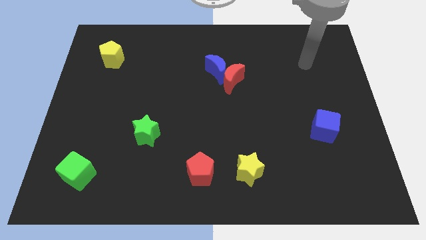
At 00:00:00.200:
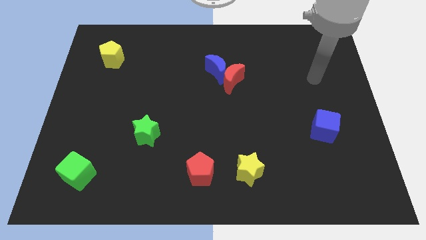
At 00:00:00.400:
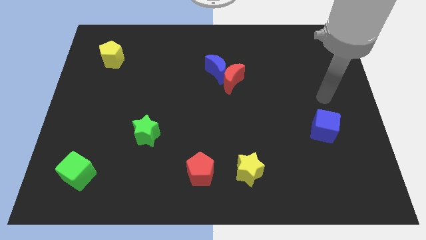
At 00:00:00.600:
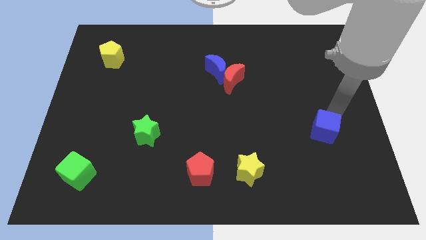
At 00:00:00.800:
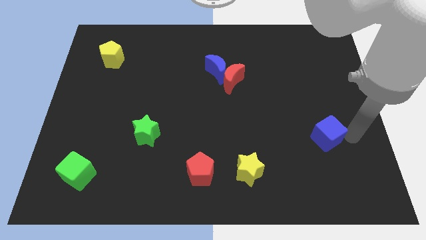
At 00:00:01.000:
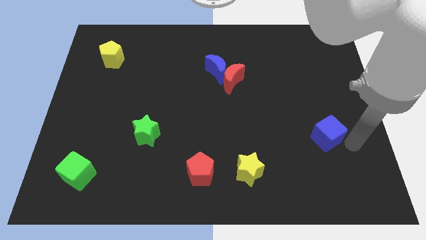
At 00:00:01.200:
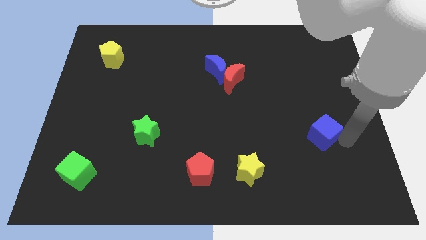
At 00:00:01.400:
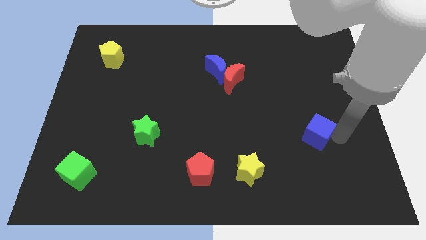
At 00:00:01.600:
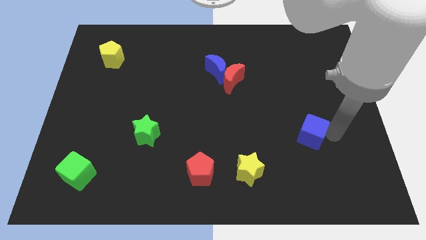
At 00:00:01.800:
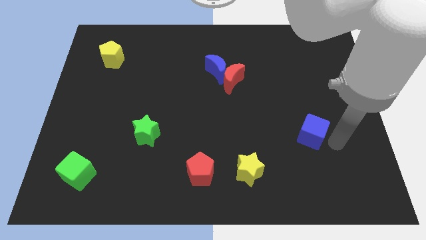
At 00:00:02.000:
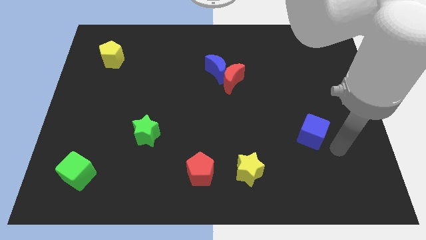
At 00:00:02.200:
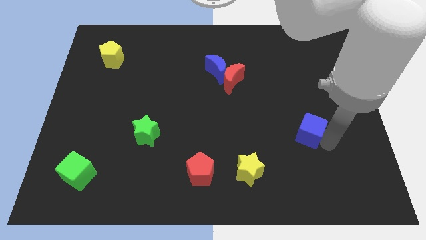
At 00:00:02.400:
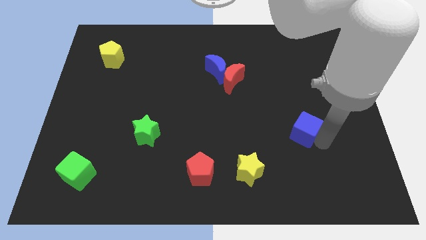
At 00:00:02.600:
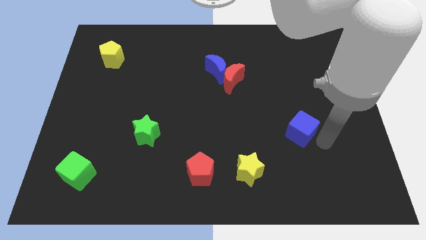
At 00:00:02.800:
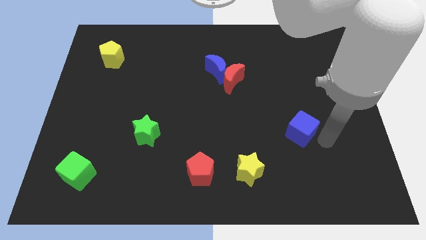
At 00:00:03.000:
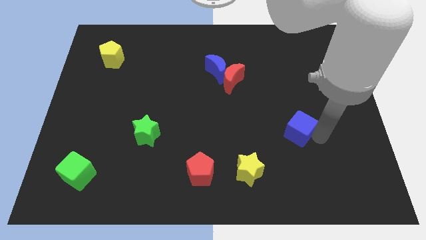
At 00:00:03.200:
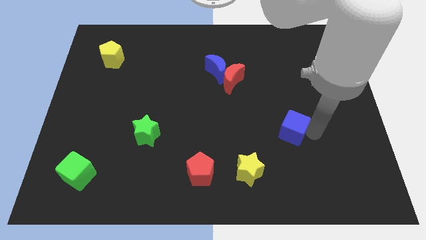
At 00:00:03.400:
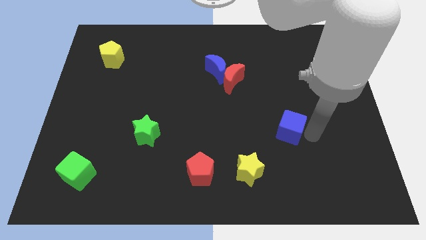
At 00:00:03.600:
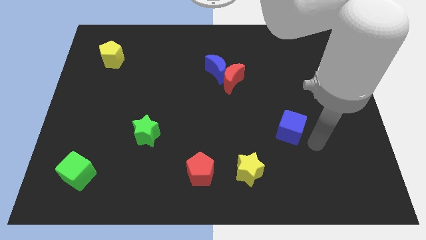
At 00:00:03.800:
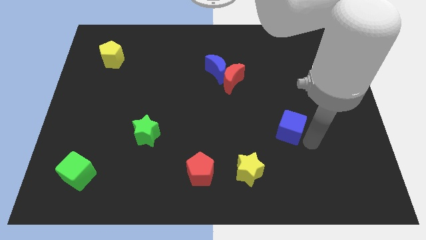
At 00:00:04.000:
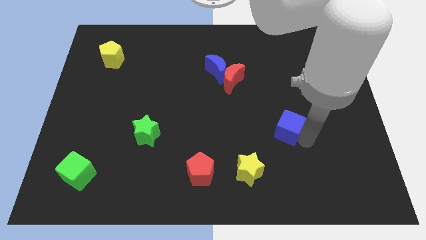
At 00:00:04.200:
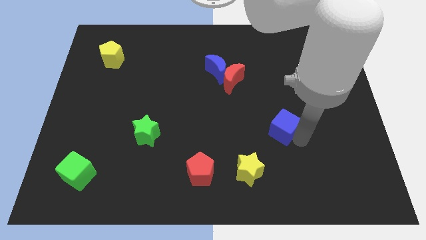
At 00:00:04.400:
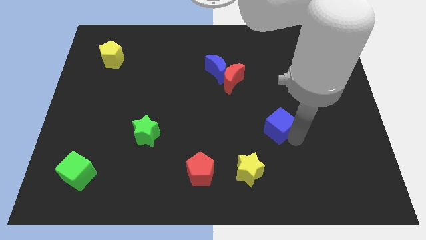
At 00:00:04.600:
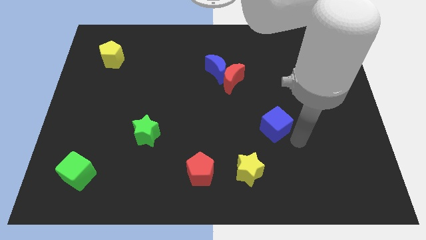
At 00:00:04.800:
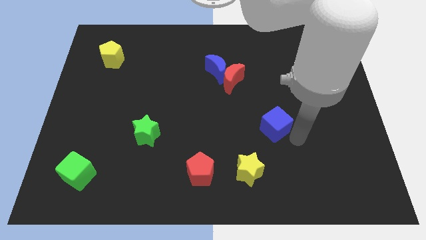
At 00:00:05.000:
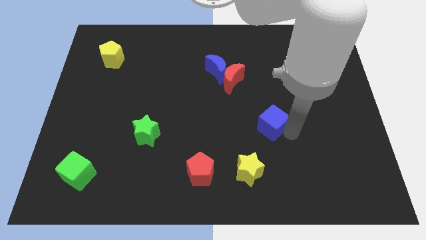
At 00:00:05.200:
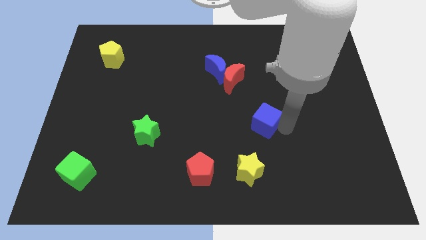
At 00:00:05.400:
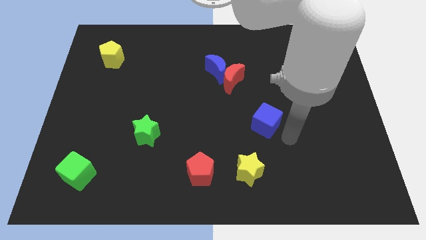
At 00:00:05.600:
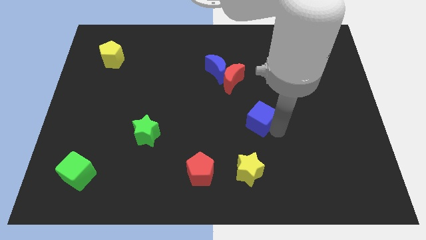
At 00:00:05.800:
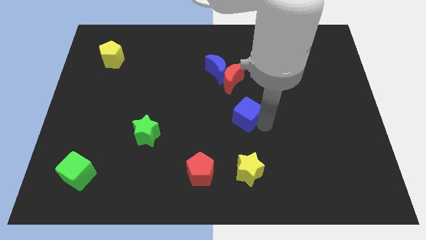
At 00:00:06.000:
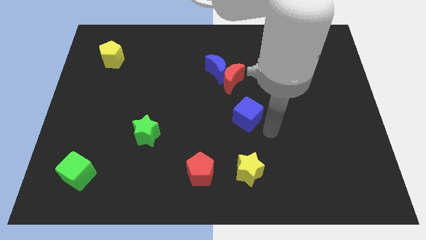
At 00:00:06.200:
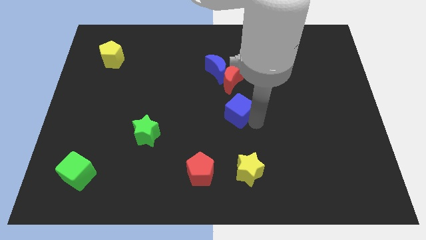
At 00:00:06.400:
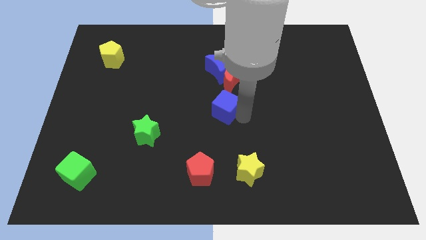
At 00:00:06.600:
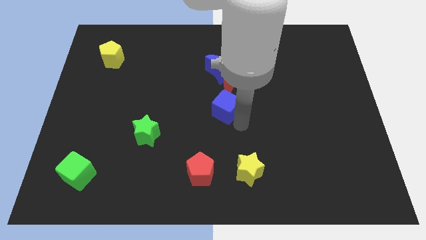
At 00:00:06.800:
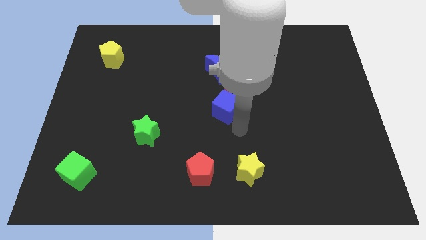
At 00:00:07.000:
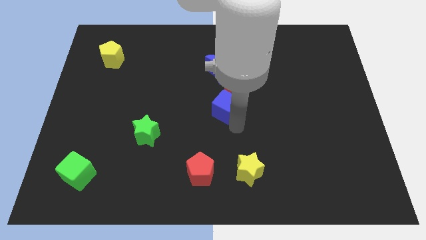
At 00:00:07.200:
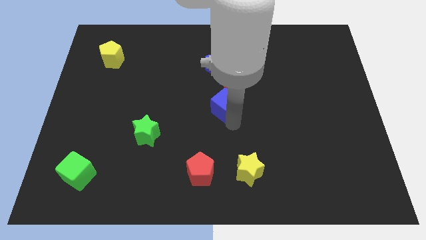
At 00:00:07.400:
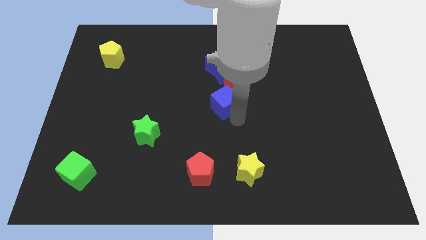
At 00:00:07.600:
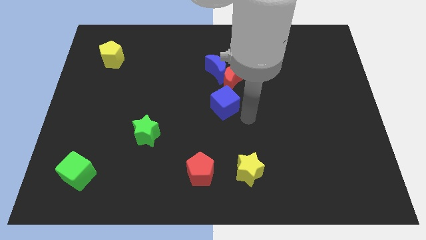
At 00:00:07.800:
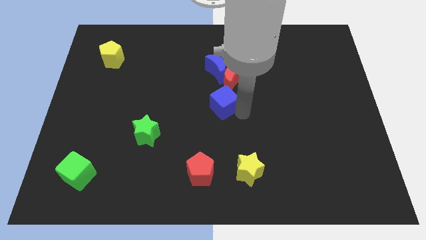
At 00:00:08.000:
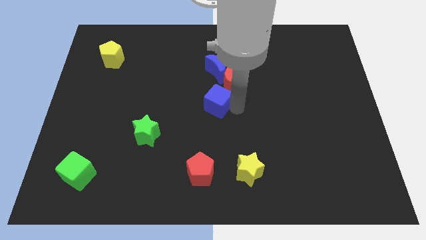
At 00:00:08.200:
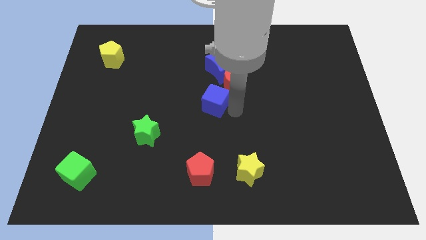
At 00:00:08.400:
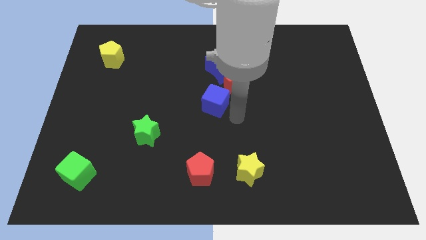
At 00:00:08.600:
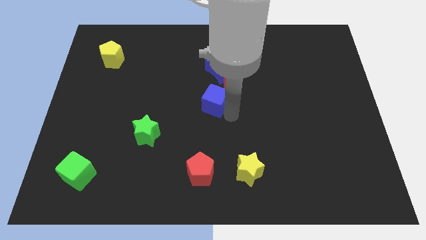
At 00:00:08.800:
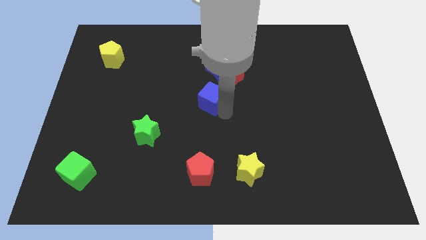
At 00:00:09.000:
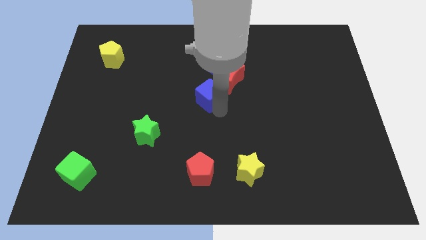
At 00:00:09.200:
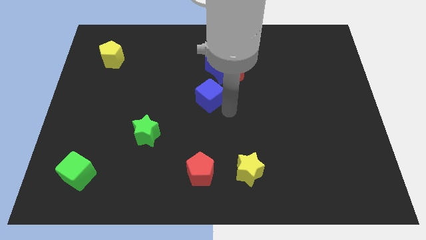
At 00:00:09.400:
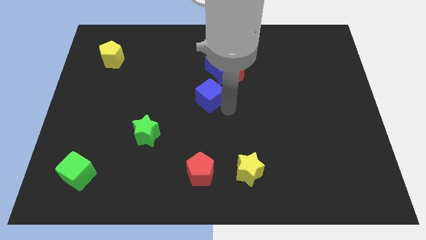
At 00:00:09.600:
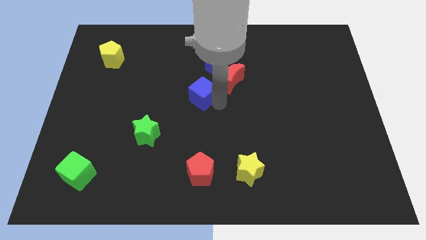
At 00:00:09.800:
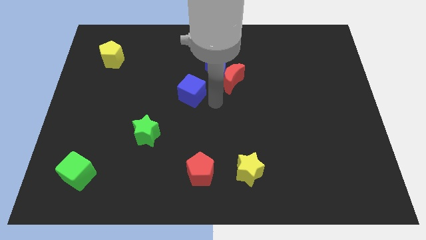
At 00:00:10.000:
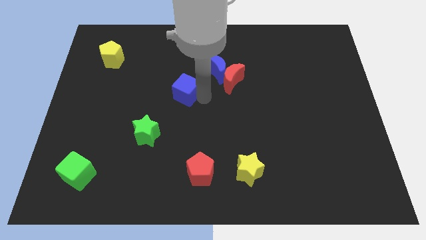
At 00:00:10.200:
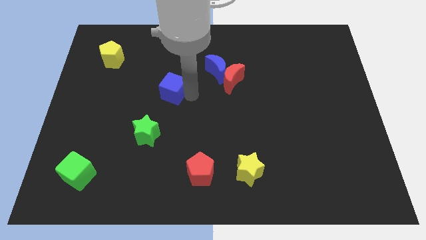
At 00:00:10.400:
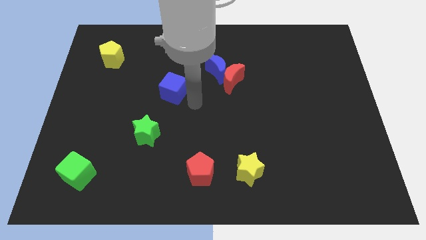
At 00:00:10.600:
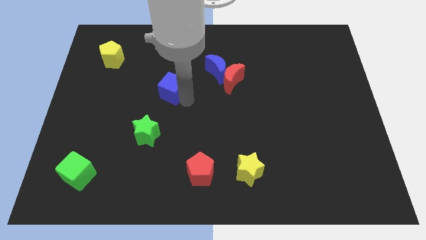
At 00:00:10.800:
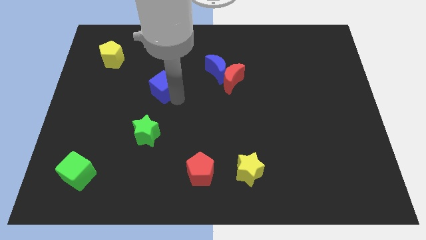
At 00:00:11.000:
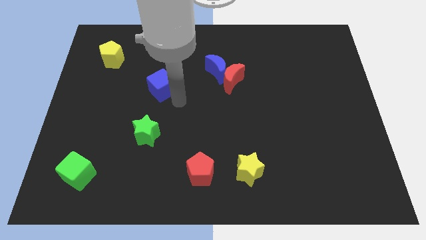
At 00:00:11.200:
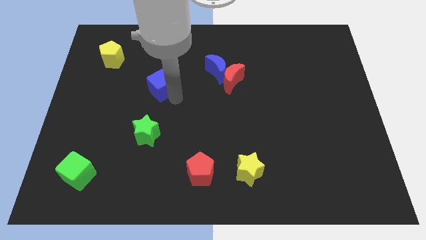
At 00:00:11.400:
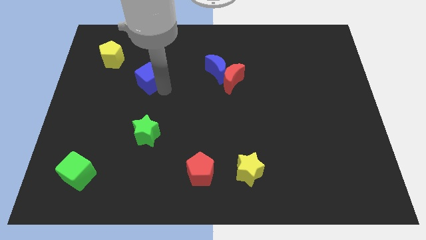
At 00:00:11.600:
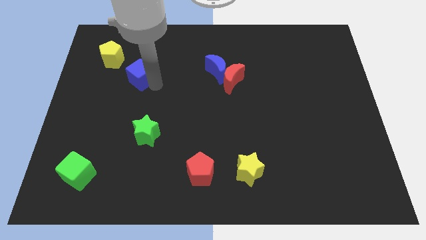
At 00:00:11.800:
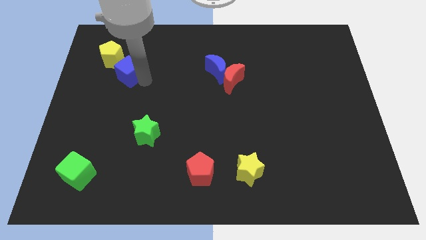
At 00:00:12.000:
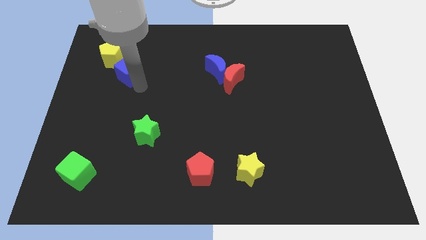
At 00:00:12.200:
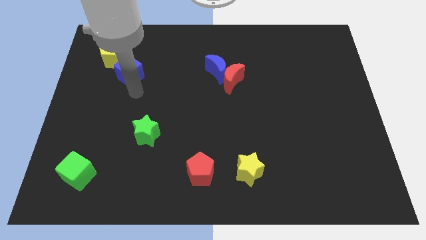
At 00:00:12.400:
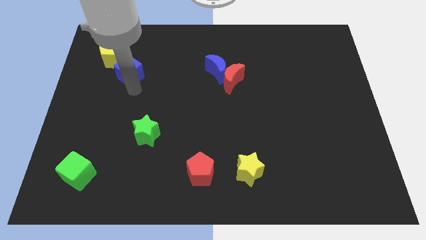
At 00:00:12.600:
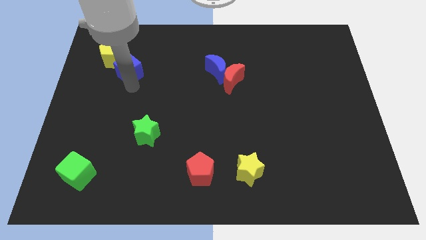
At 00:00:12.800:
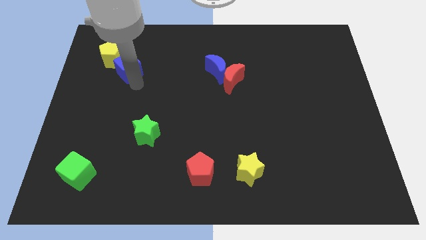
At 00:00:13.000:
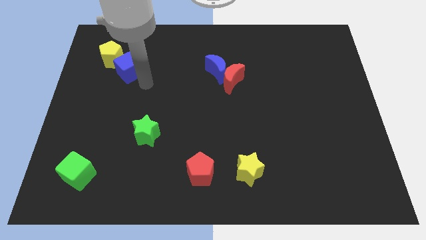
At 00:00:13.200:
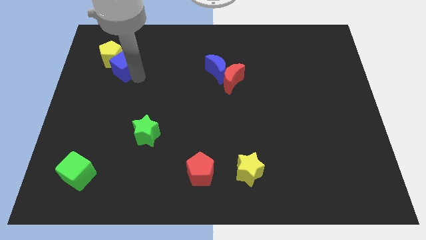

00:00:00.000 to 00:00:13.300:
put the blue cube towards the yellow pentagon
